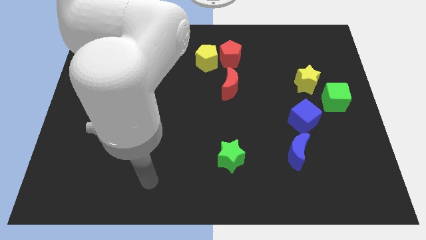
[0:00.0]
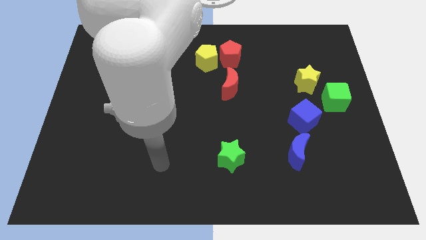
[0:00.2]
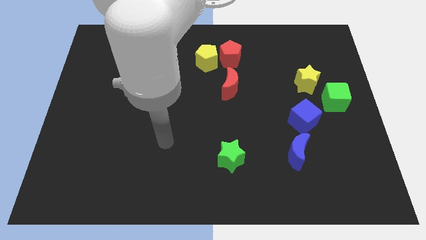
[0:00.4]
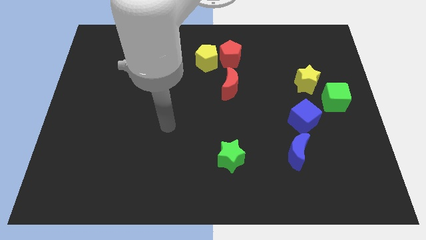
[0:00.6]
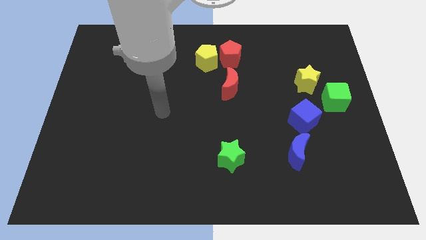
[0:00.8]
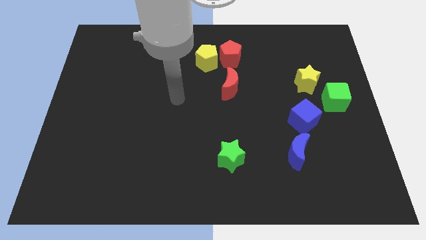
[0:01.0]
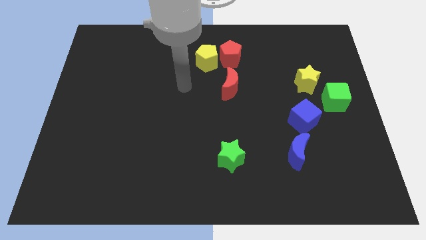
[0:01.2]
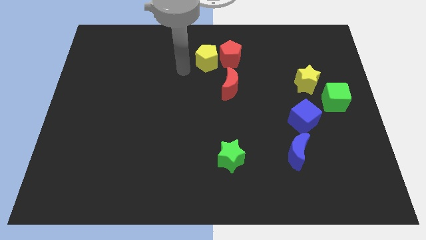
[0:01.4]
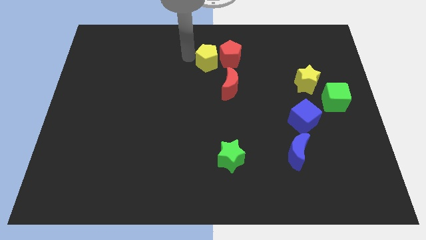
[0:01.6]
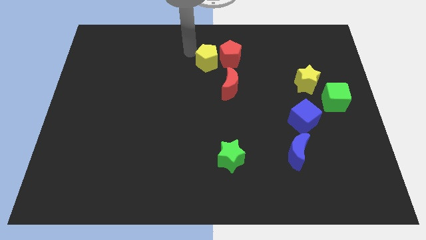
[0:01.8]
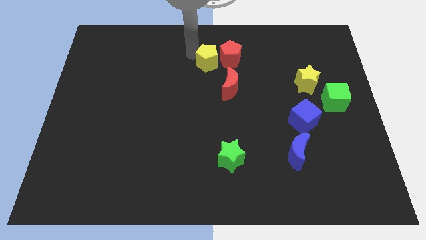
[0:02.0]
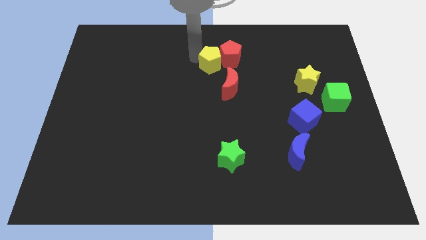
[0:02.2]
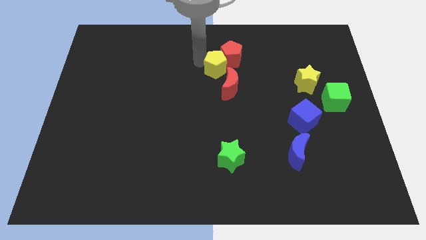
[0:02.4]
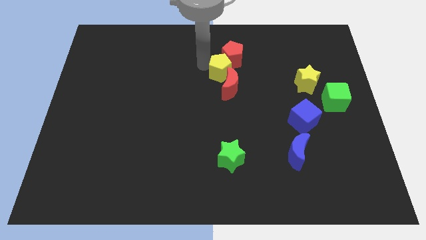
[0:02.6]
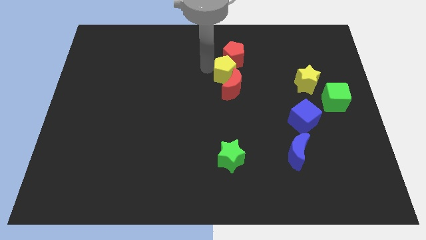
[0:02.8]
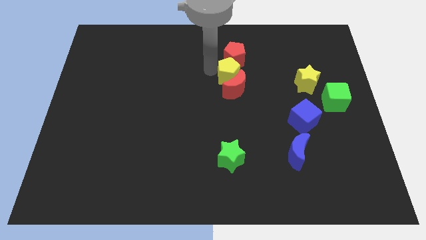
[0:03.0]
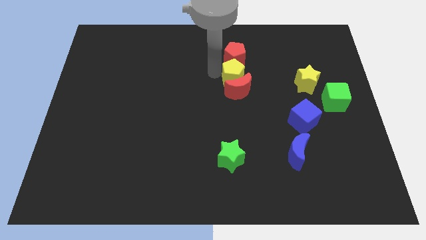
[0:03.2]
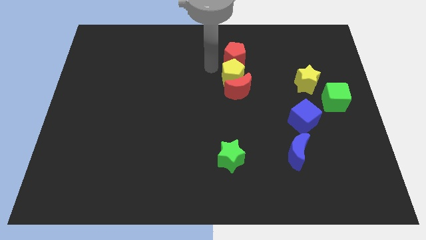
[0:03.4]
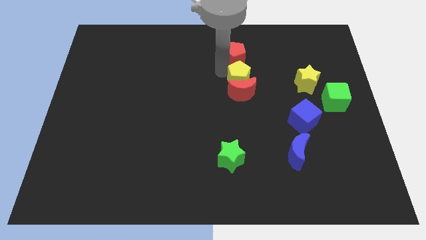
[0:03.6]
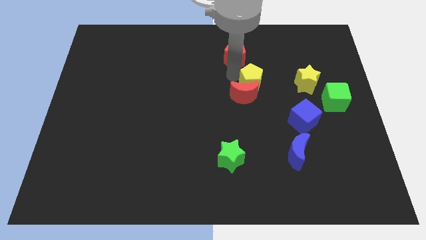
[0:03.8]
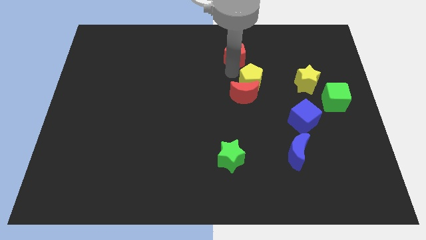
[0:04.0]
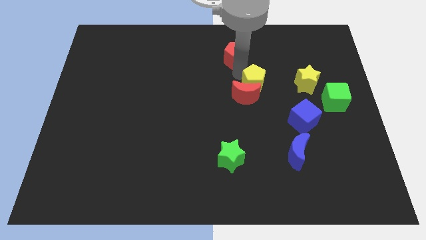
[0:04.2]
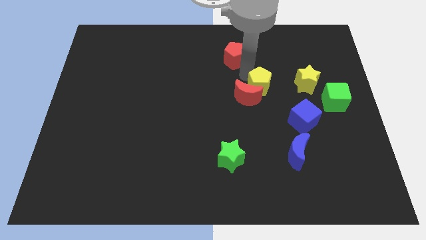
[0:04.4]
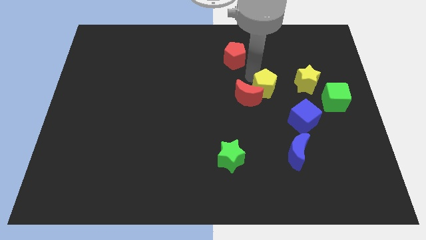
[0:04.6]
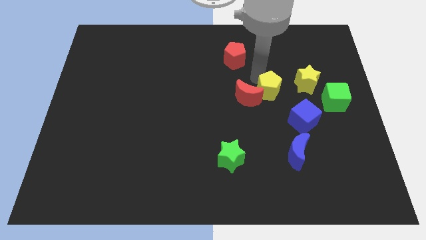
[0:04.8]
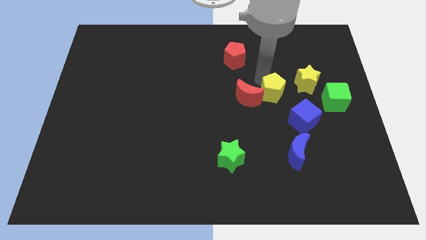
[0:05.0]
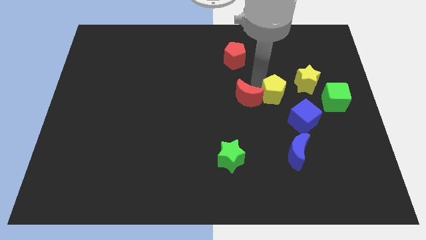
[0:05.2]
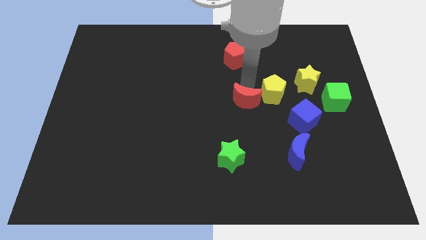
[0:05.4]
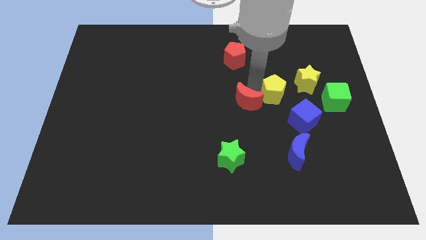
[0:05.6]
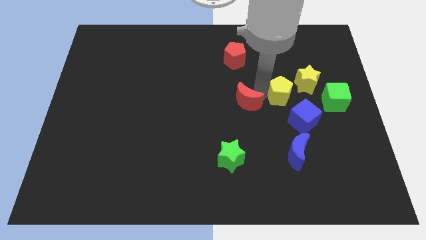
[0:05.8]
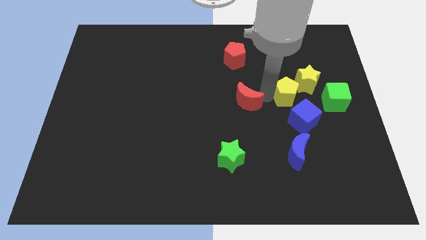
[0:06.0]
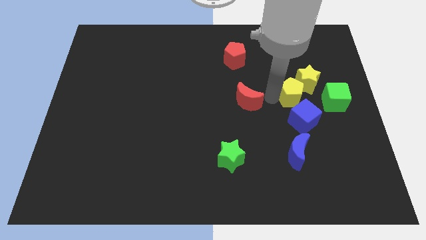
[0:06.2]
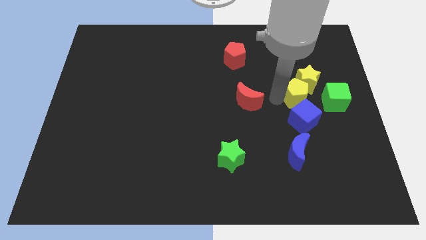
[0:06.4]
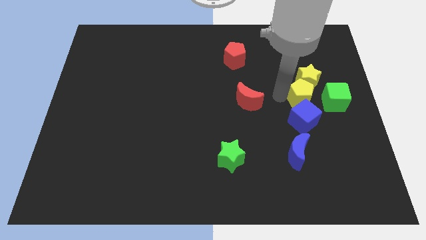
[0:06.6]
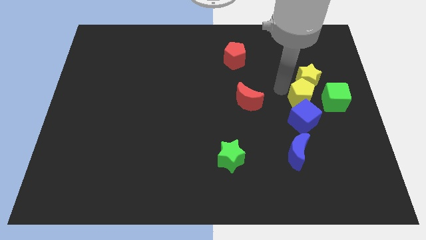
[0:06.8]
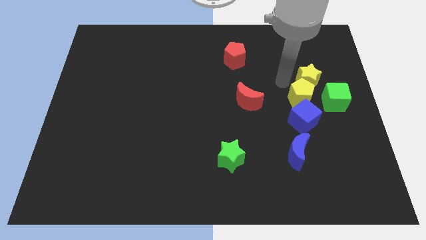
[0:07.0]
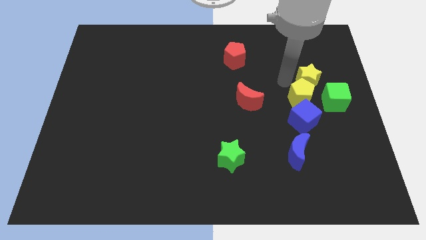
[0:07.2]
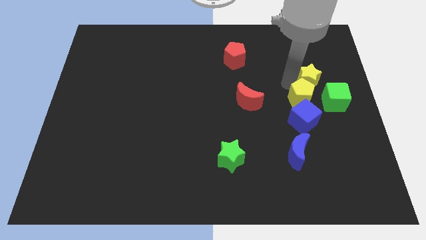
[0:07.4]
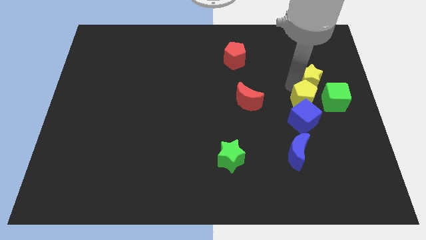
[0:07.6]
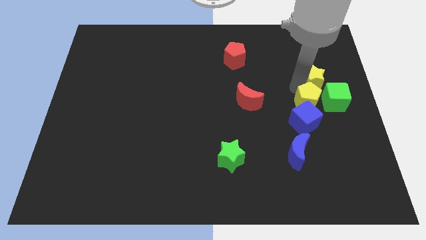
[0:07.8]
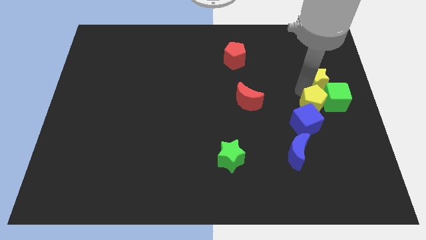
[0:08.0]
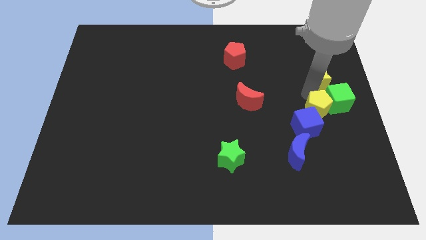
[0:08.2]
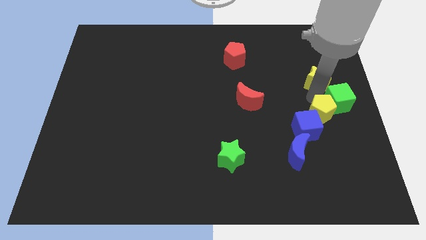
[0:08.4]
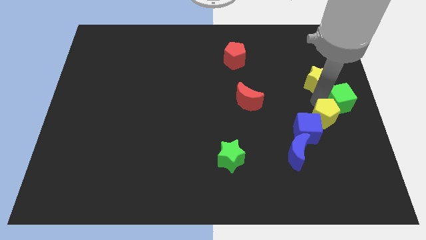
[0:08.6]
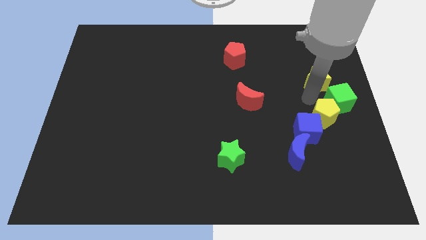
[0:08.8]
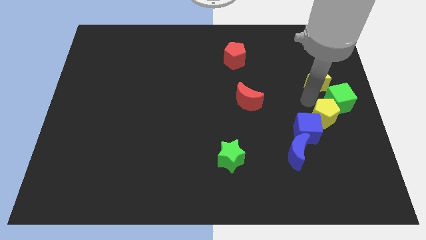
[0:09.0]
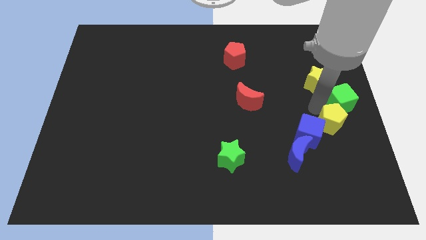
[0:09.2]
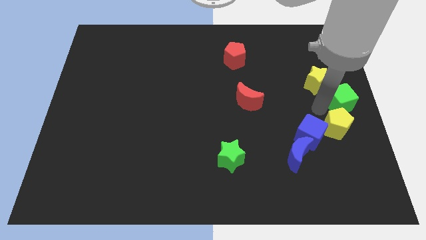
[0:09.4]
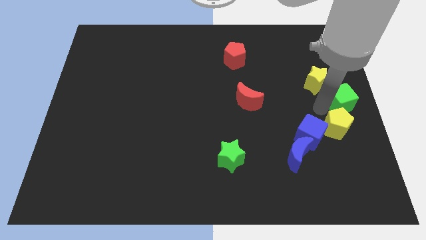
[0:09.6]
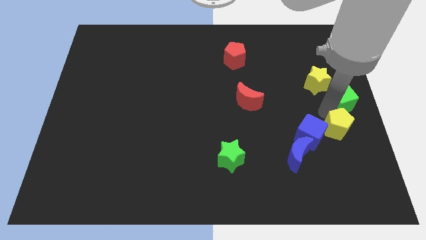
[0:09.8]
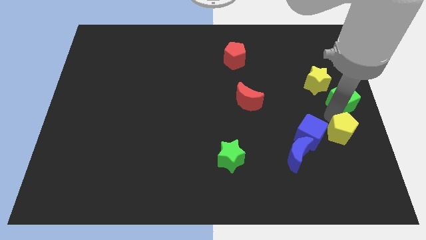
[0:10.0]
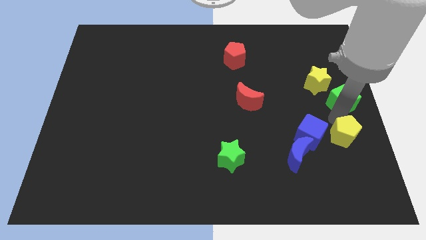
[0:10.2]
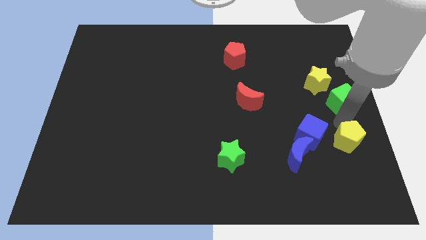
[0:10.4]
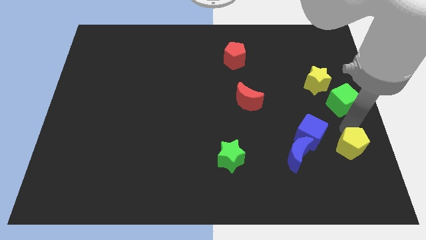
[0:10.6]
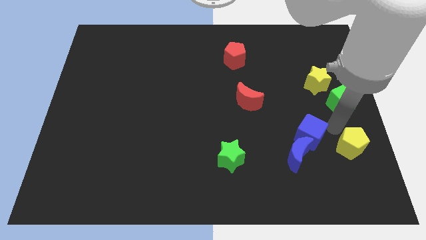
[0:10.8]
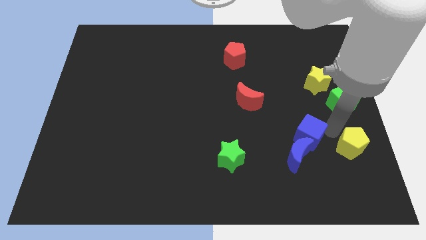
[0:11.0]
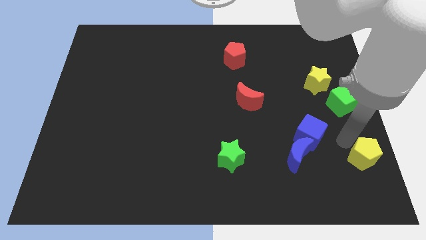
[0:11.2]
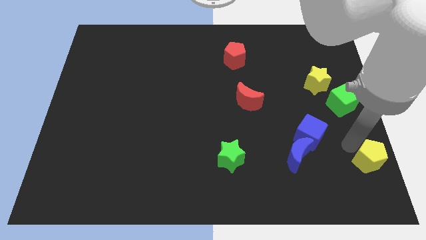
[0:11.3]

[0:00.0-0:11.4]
put the yellow pentagon to the lower right corner
